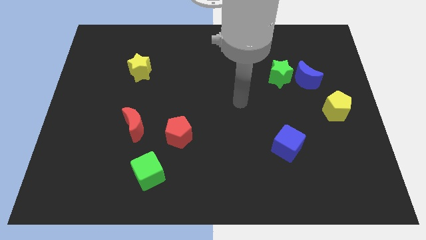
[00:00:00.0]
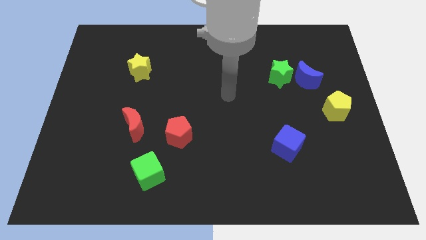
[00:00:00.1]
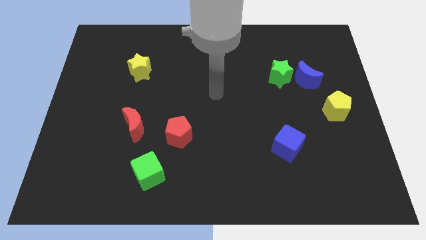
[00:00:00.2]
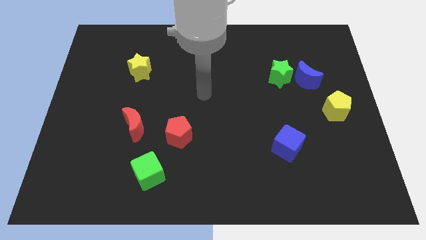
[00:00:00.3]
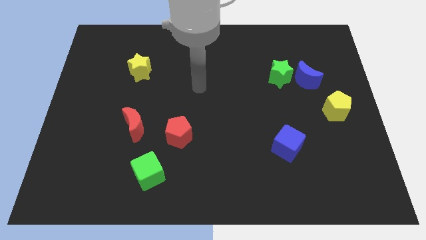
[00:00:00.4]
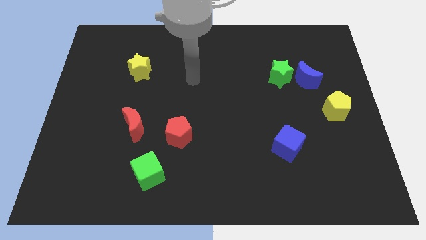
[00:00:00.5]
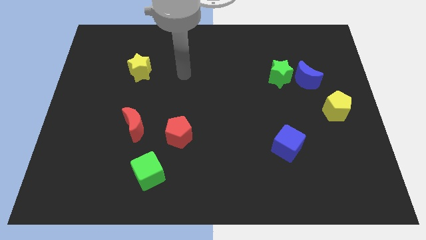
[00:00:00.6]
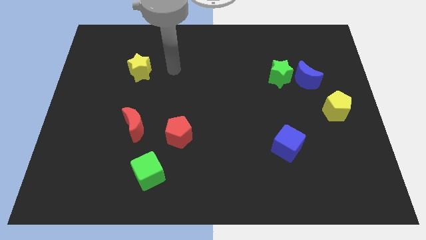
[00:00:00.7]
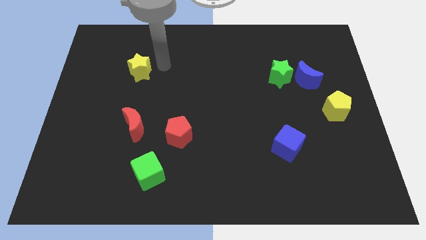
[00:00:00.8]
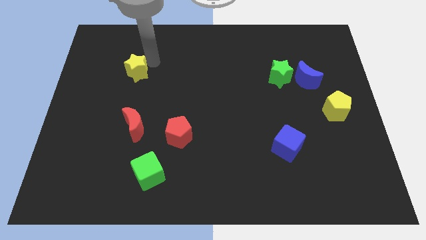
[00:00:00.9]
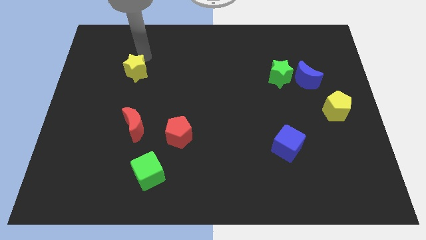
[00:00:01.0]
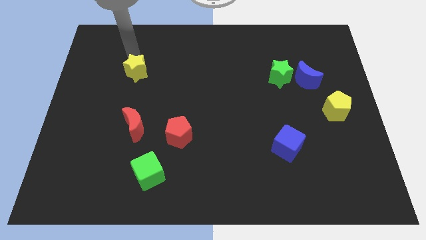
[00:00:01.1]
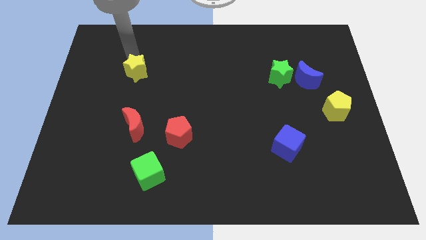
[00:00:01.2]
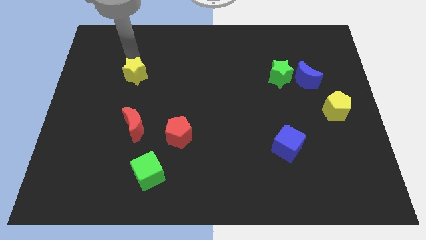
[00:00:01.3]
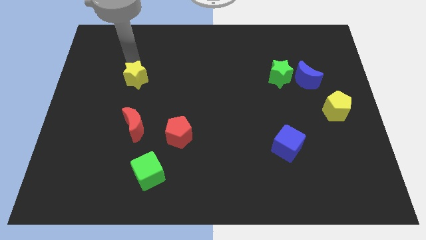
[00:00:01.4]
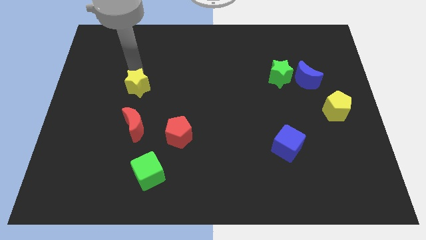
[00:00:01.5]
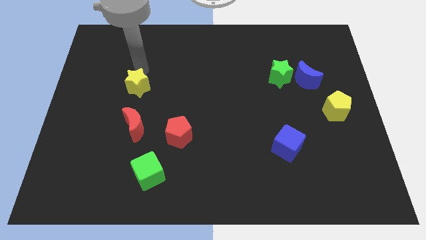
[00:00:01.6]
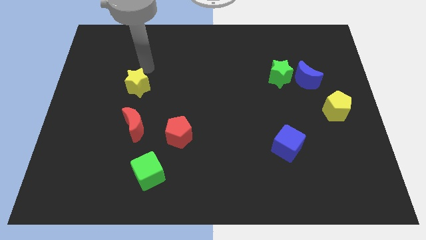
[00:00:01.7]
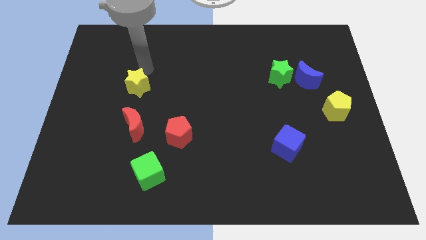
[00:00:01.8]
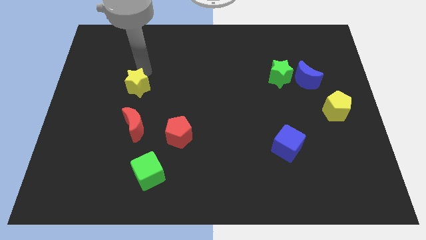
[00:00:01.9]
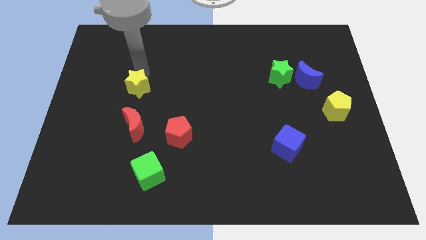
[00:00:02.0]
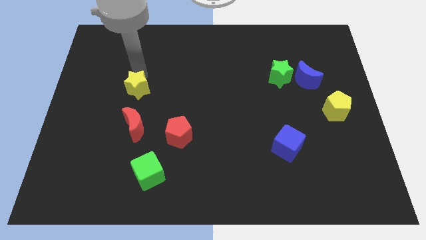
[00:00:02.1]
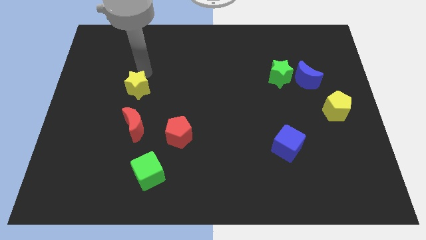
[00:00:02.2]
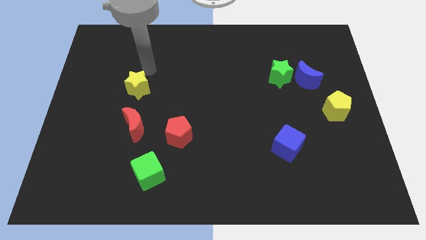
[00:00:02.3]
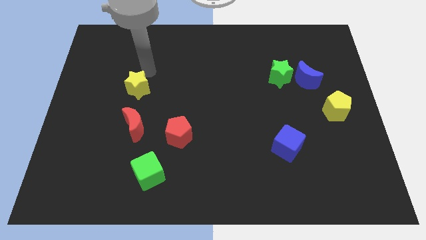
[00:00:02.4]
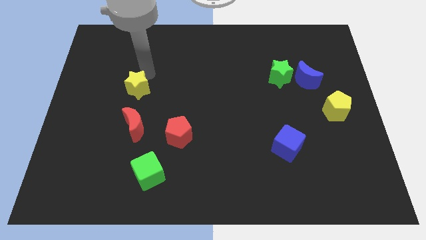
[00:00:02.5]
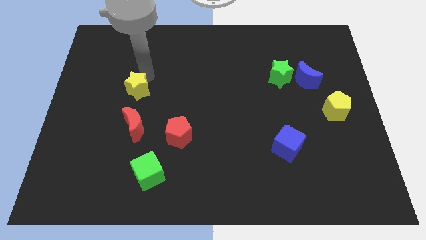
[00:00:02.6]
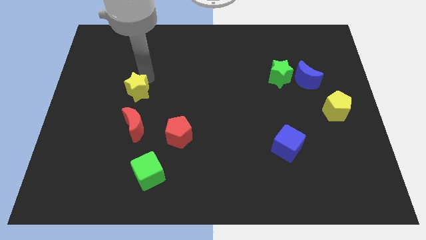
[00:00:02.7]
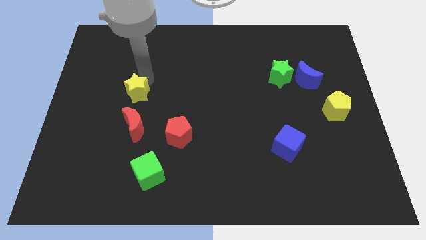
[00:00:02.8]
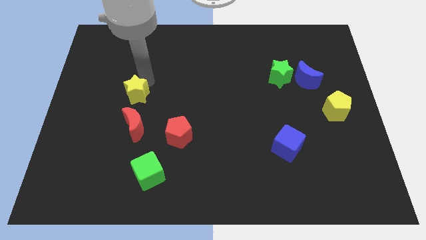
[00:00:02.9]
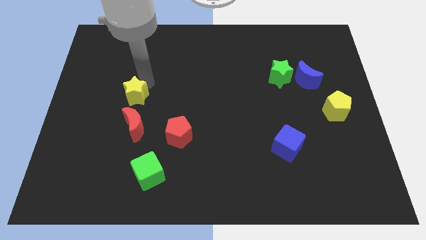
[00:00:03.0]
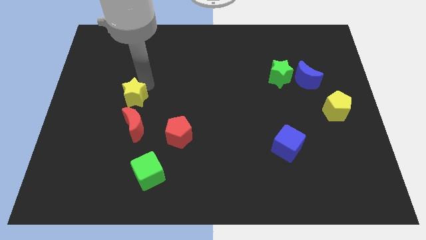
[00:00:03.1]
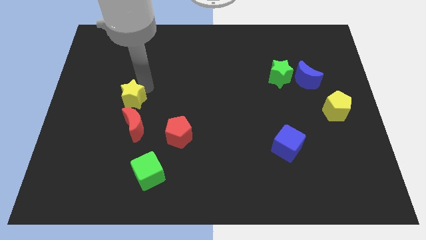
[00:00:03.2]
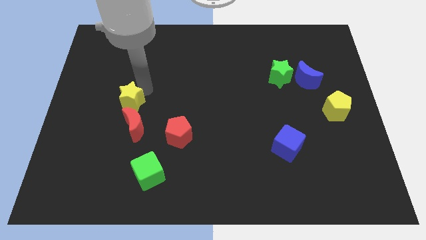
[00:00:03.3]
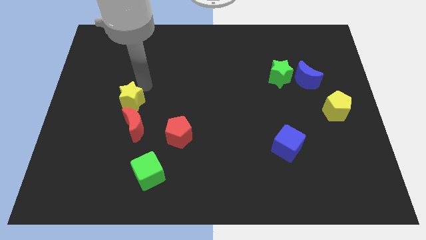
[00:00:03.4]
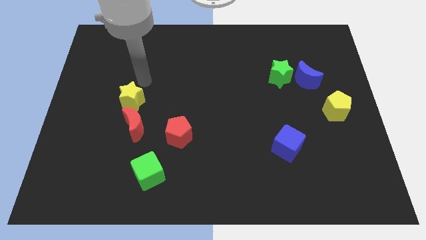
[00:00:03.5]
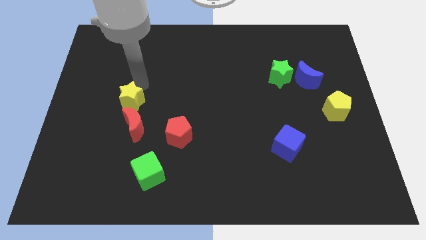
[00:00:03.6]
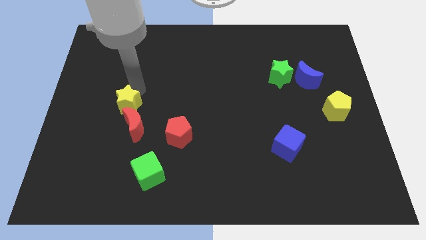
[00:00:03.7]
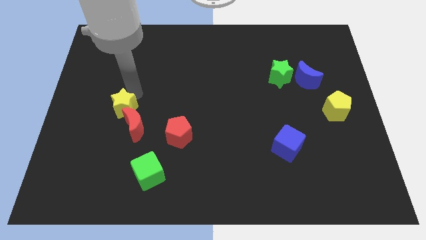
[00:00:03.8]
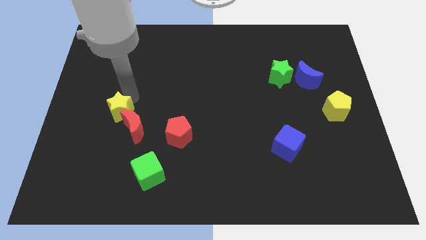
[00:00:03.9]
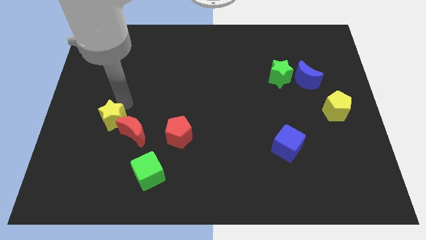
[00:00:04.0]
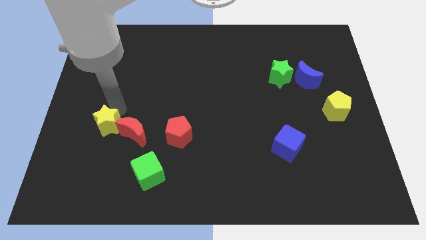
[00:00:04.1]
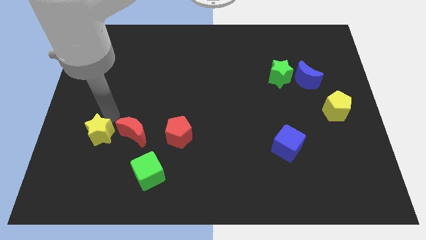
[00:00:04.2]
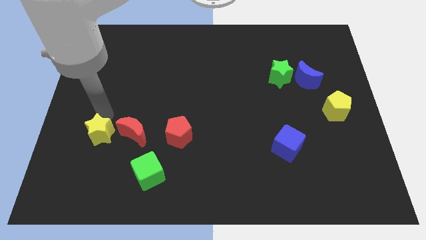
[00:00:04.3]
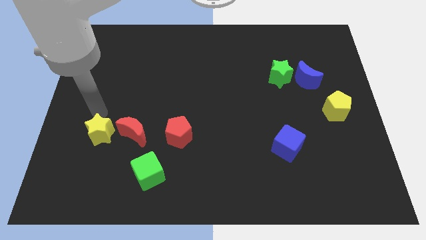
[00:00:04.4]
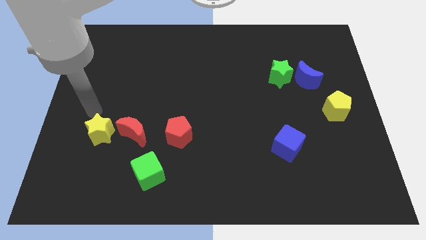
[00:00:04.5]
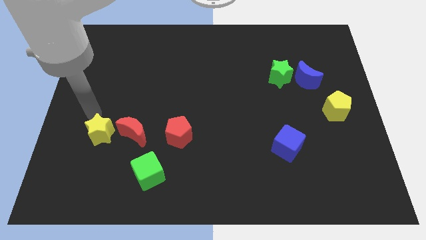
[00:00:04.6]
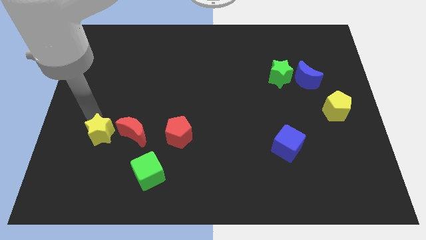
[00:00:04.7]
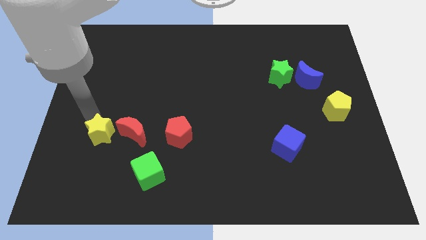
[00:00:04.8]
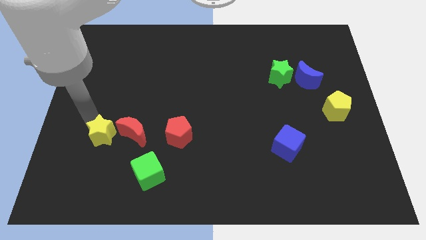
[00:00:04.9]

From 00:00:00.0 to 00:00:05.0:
put the yellow star to the bottom left of the red moon

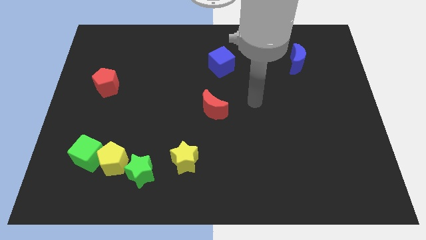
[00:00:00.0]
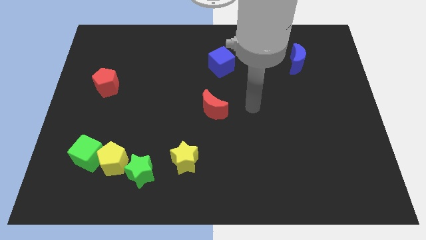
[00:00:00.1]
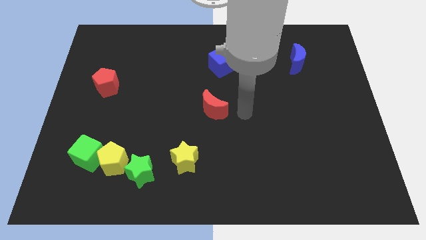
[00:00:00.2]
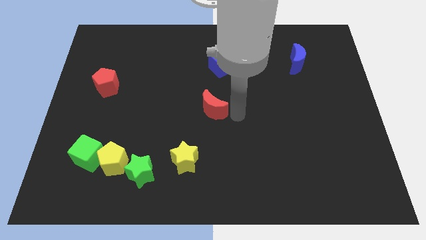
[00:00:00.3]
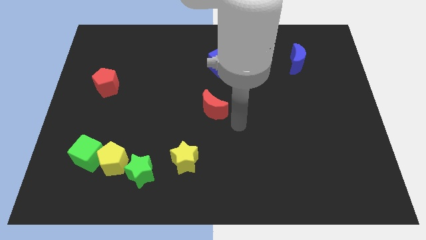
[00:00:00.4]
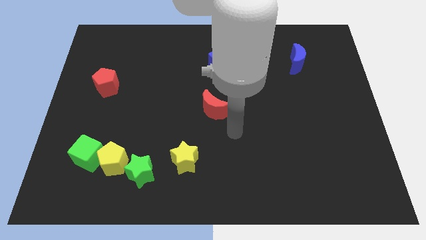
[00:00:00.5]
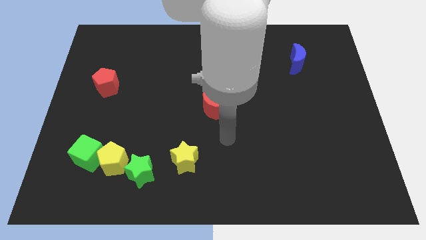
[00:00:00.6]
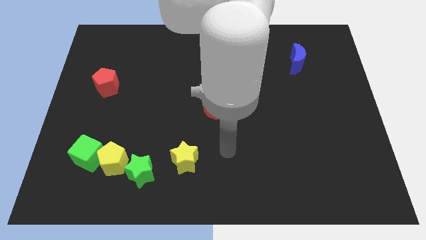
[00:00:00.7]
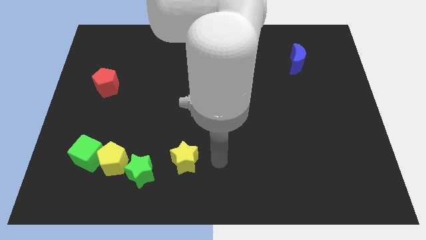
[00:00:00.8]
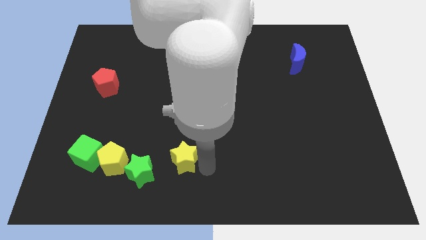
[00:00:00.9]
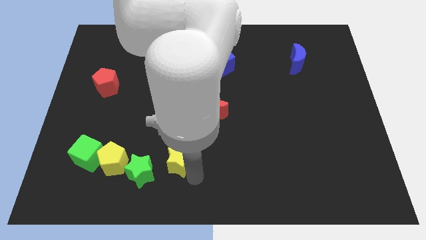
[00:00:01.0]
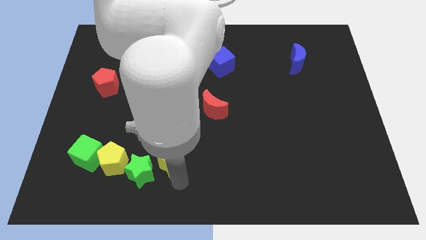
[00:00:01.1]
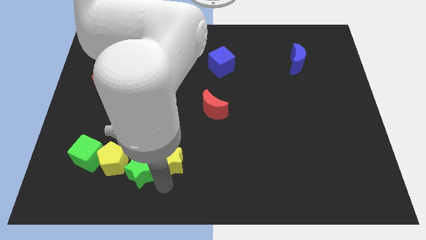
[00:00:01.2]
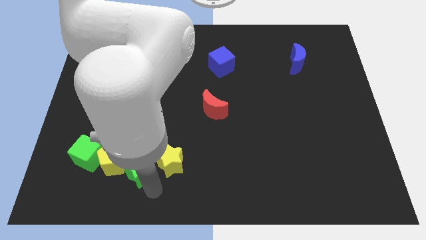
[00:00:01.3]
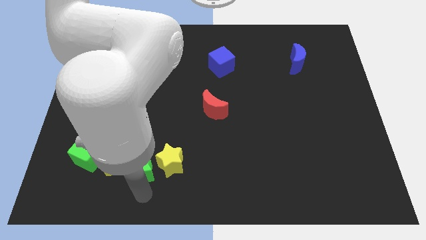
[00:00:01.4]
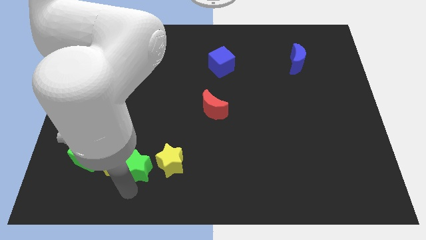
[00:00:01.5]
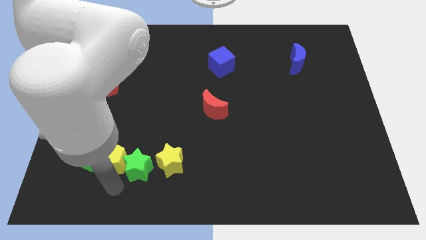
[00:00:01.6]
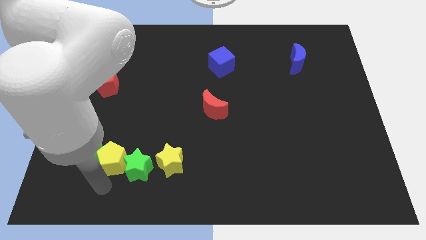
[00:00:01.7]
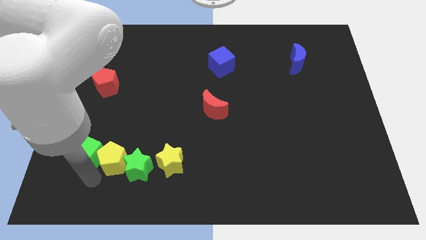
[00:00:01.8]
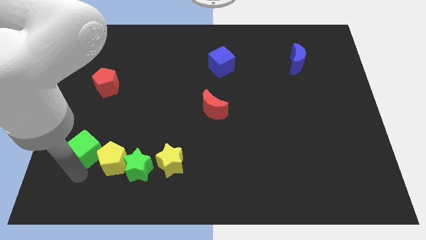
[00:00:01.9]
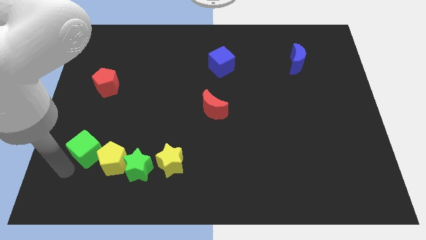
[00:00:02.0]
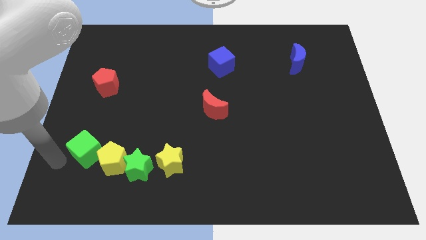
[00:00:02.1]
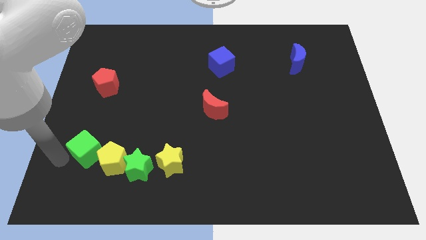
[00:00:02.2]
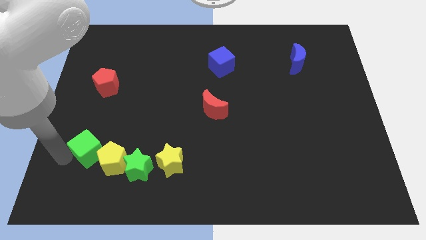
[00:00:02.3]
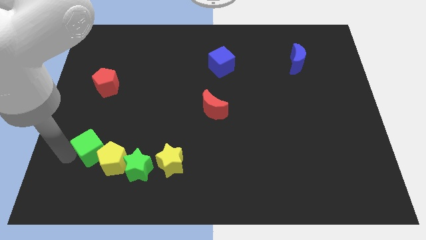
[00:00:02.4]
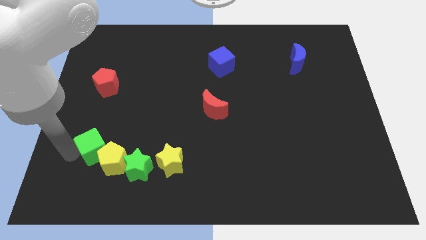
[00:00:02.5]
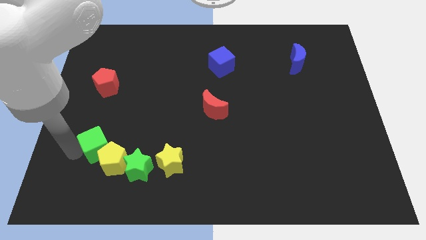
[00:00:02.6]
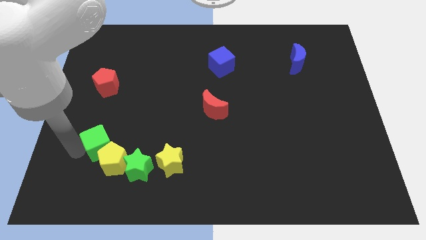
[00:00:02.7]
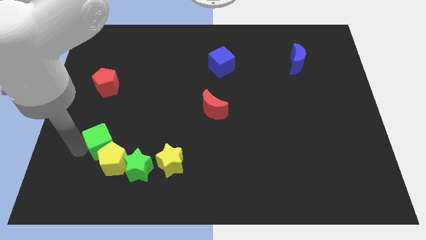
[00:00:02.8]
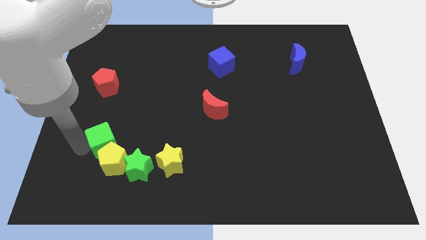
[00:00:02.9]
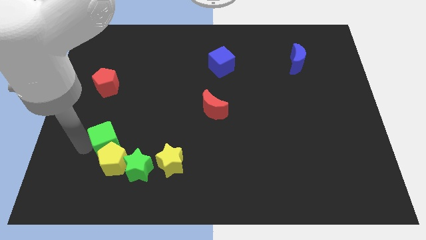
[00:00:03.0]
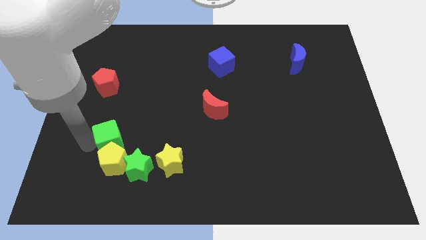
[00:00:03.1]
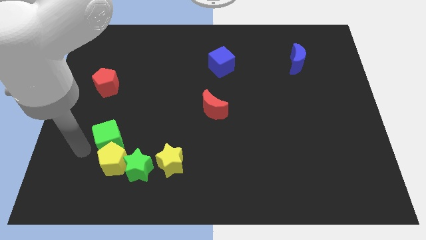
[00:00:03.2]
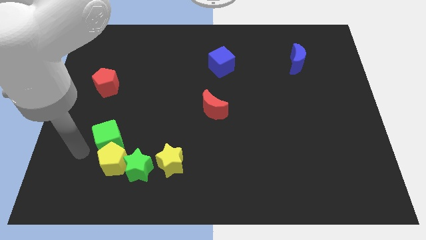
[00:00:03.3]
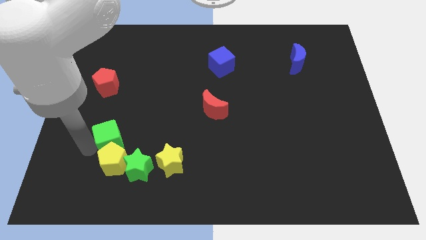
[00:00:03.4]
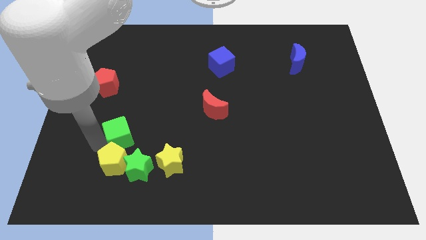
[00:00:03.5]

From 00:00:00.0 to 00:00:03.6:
move the green cube above the green star
